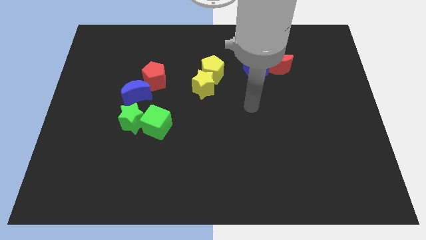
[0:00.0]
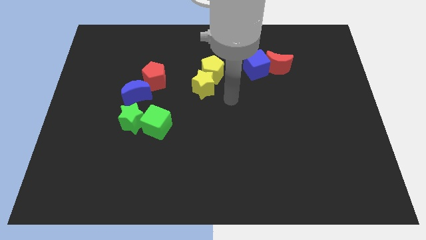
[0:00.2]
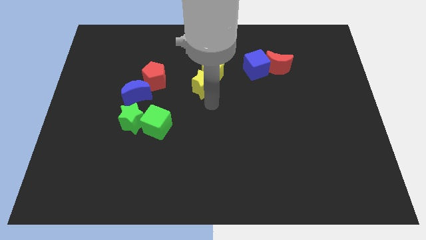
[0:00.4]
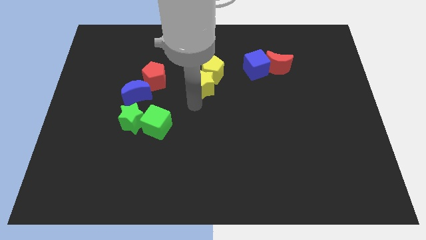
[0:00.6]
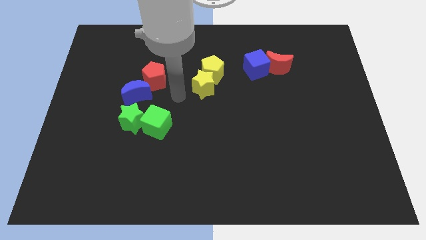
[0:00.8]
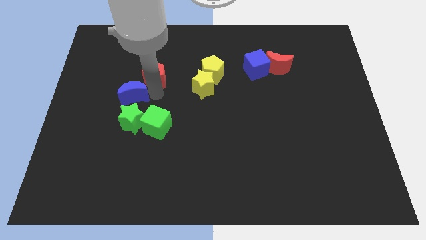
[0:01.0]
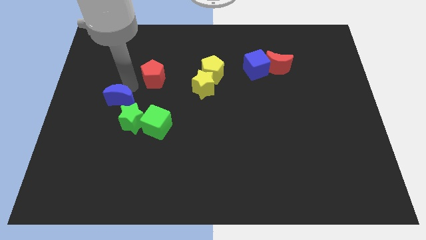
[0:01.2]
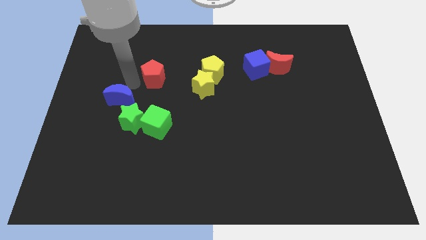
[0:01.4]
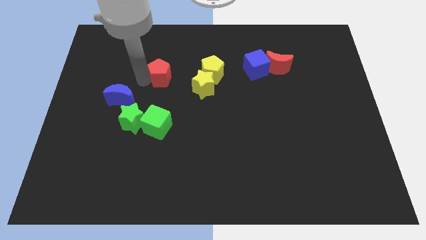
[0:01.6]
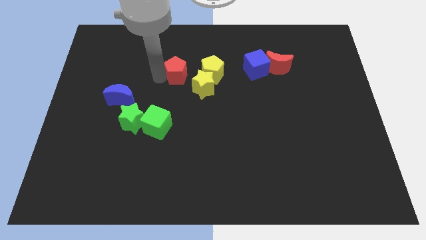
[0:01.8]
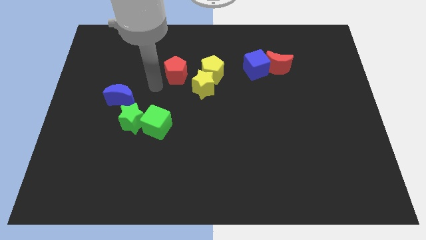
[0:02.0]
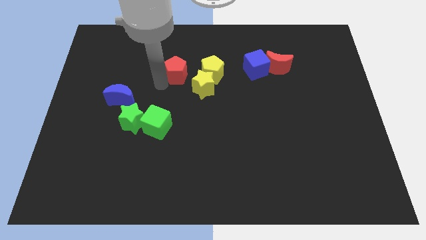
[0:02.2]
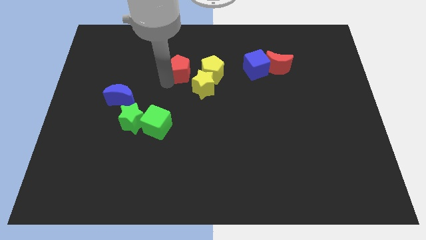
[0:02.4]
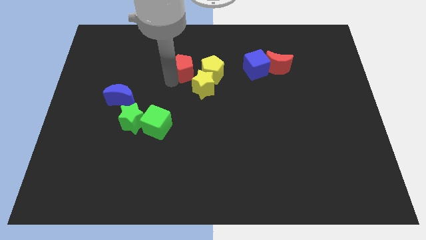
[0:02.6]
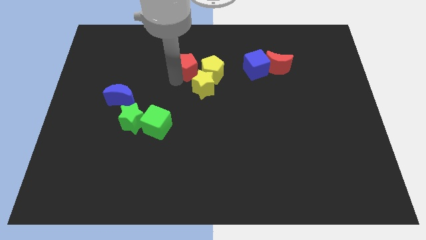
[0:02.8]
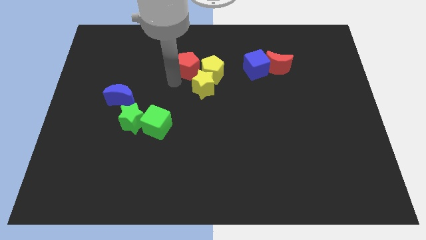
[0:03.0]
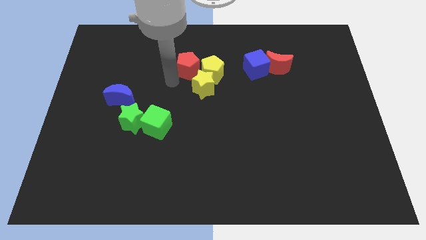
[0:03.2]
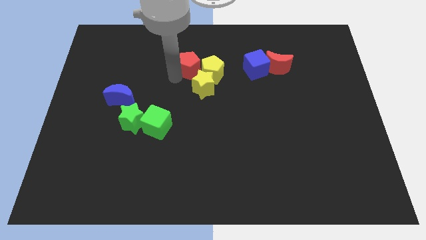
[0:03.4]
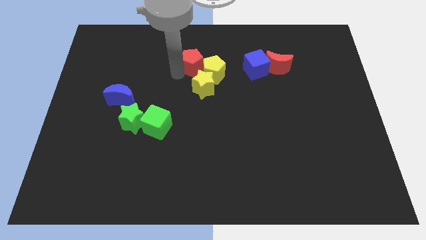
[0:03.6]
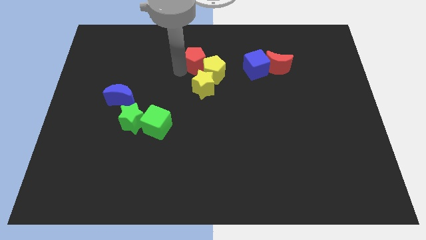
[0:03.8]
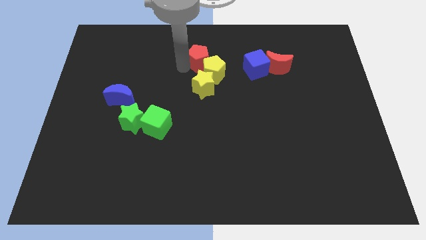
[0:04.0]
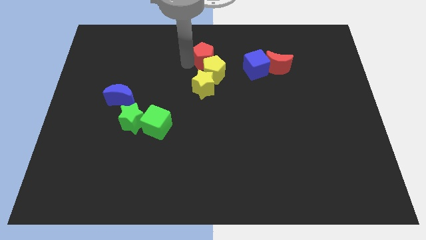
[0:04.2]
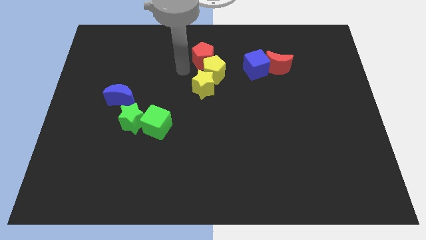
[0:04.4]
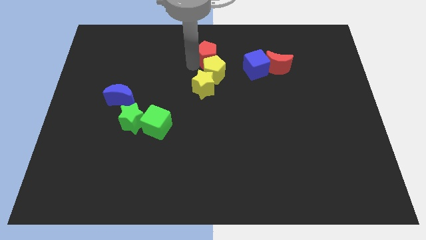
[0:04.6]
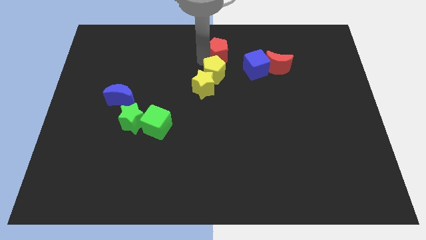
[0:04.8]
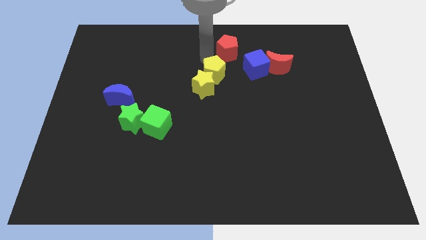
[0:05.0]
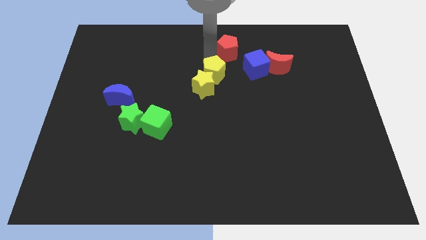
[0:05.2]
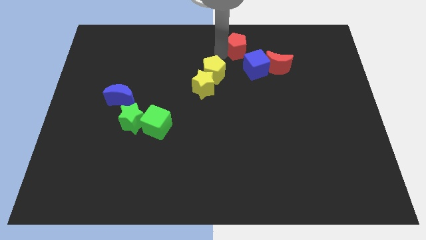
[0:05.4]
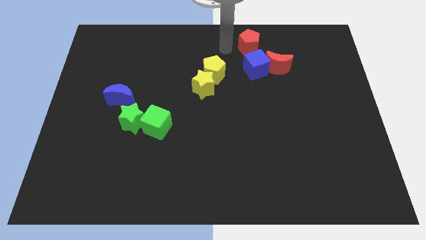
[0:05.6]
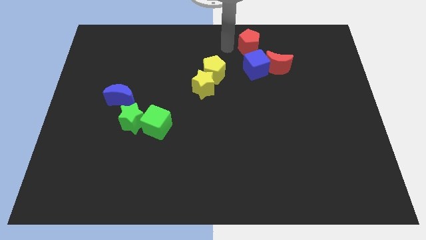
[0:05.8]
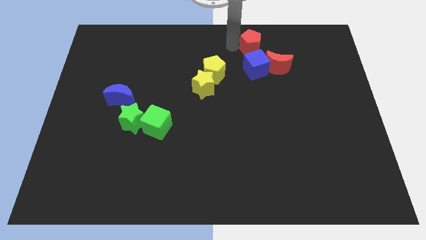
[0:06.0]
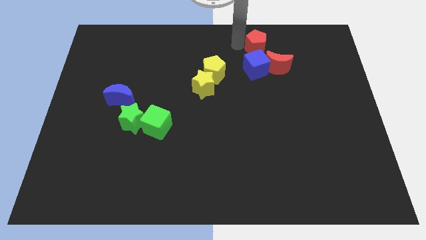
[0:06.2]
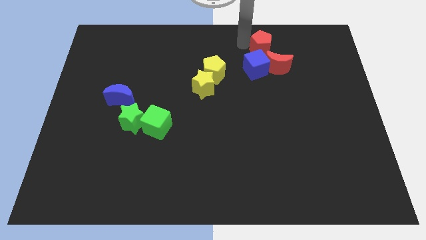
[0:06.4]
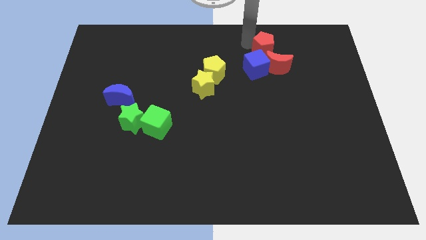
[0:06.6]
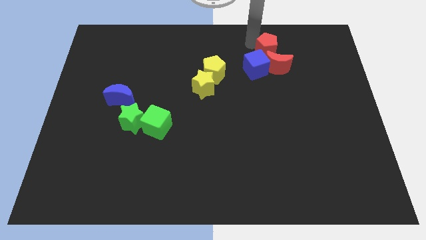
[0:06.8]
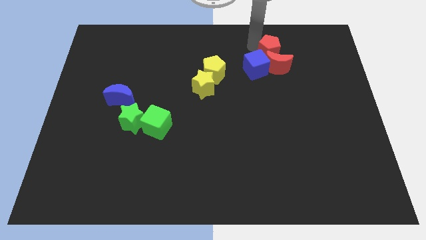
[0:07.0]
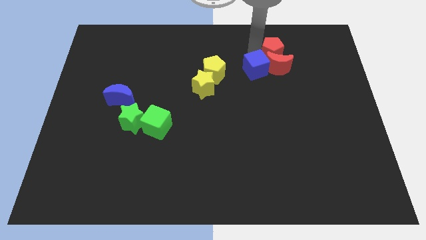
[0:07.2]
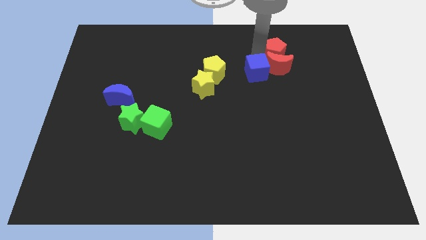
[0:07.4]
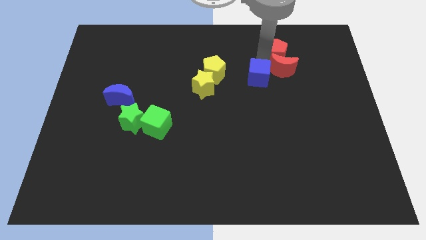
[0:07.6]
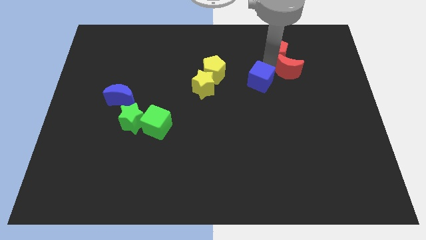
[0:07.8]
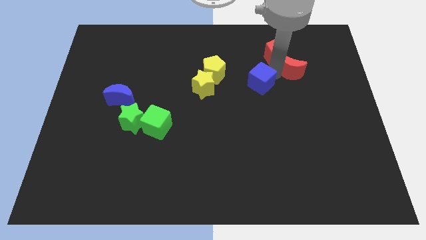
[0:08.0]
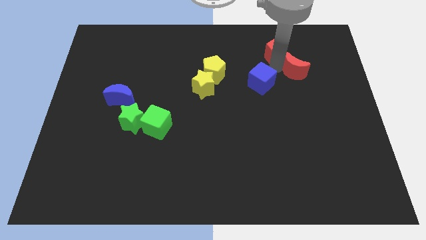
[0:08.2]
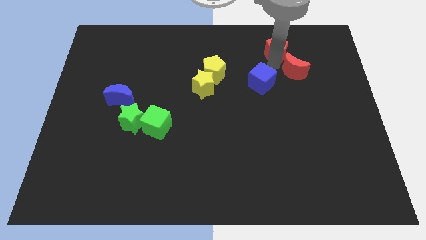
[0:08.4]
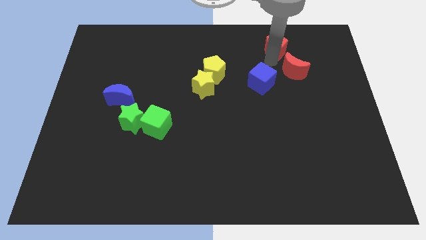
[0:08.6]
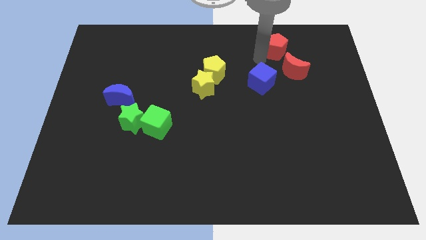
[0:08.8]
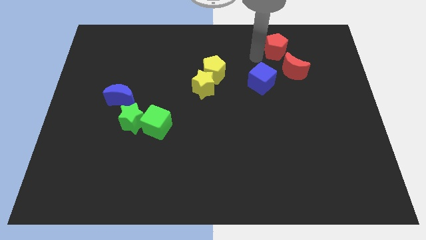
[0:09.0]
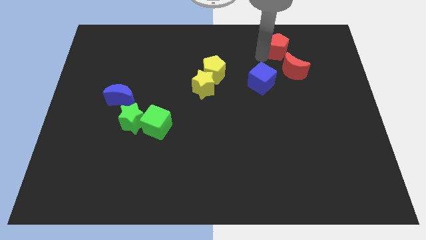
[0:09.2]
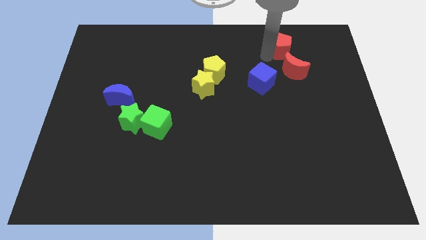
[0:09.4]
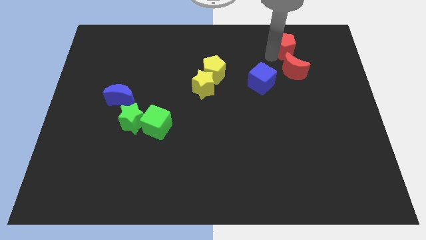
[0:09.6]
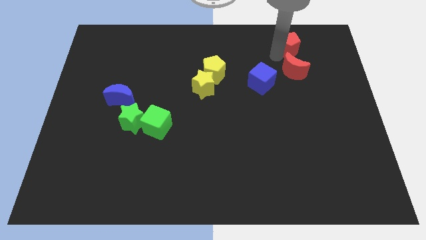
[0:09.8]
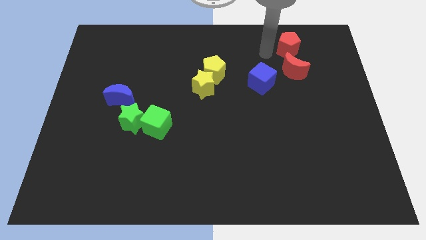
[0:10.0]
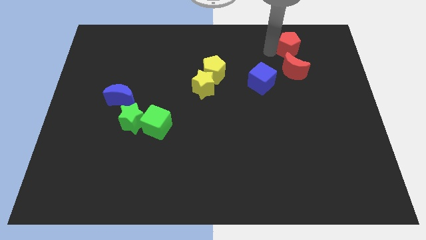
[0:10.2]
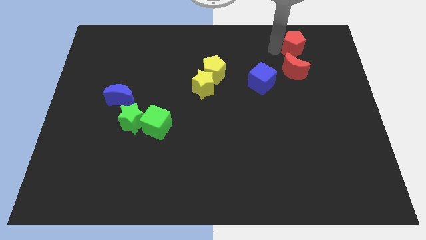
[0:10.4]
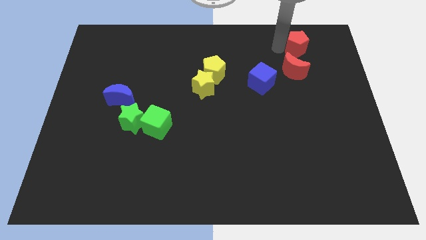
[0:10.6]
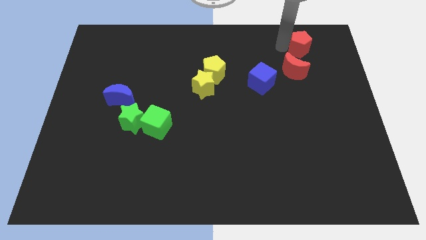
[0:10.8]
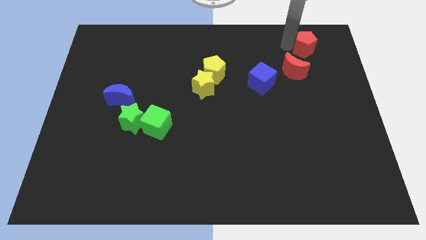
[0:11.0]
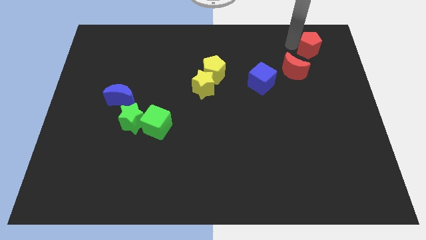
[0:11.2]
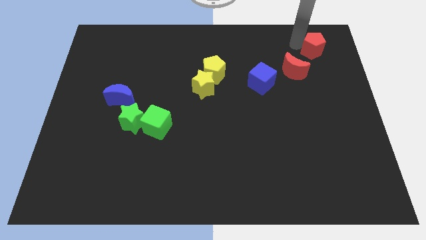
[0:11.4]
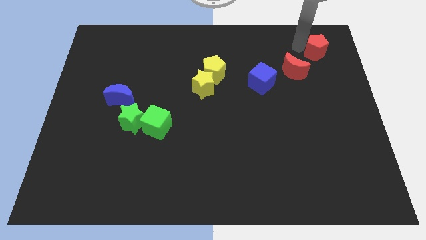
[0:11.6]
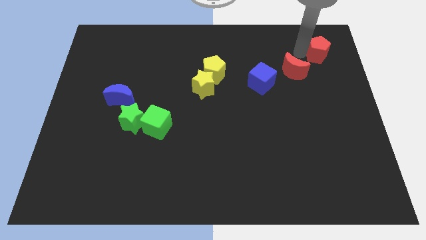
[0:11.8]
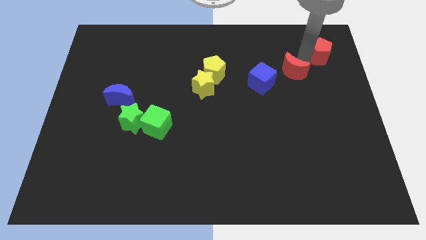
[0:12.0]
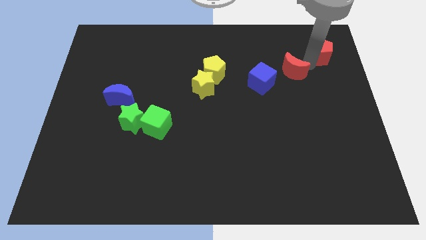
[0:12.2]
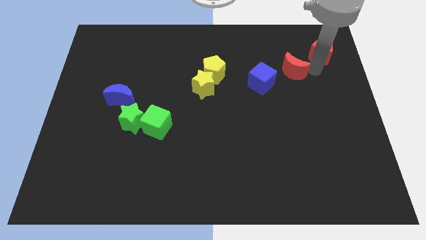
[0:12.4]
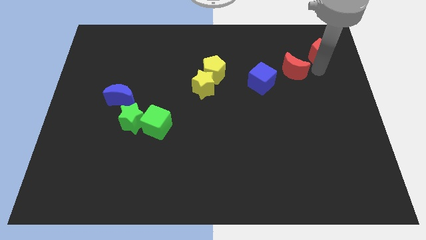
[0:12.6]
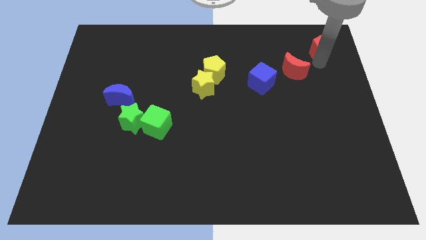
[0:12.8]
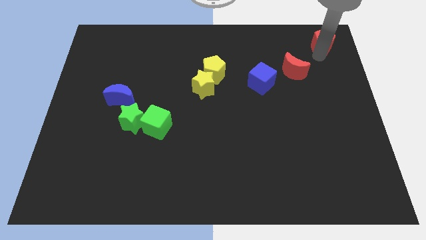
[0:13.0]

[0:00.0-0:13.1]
move the red pentagon to the top right of the board

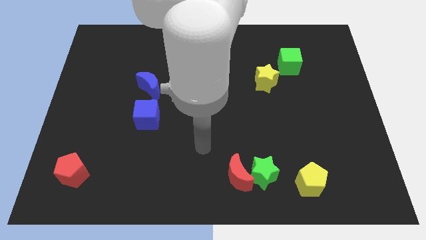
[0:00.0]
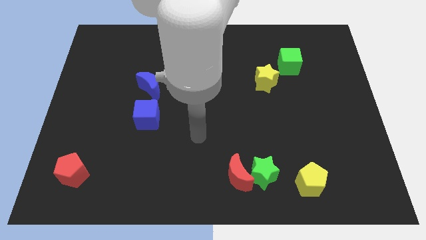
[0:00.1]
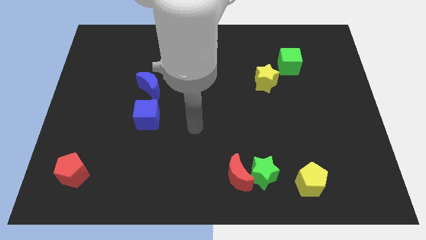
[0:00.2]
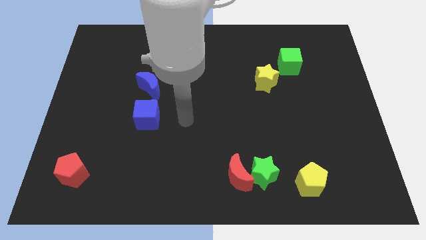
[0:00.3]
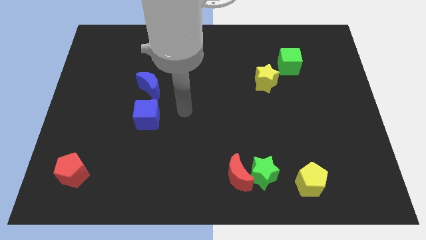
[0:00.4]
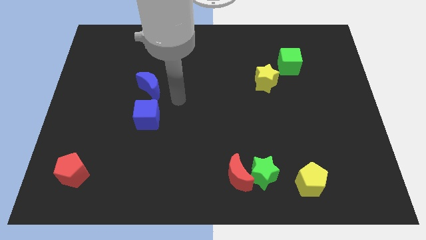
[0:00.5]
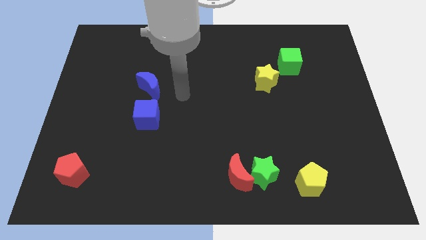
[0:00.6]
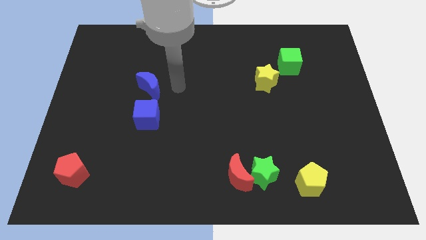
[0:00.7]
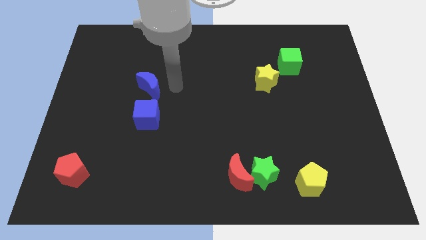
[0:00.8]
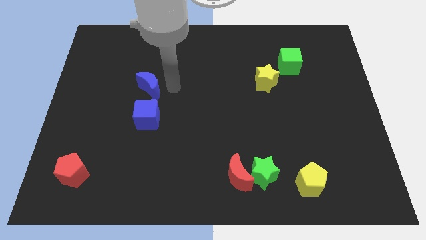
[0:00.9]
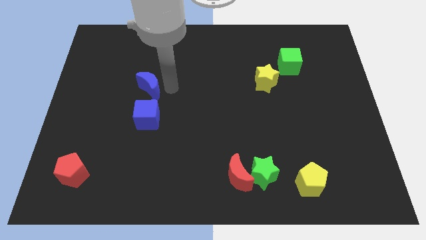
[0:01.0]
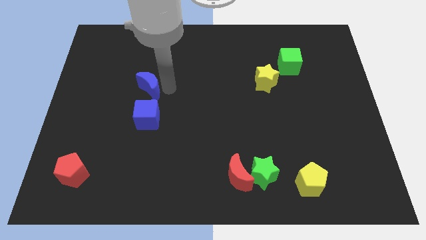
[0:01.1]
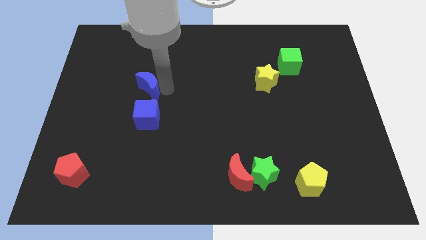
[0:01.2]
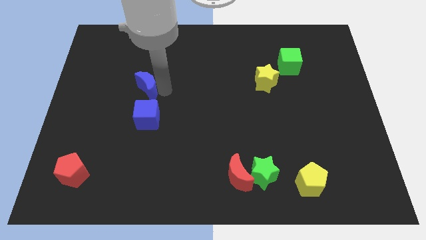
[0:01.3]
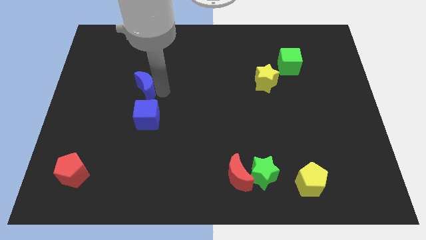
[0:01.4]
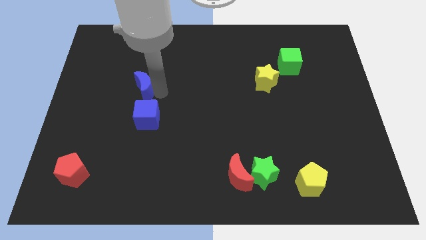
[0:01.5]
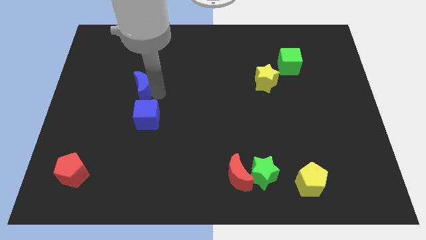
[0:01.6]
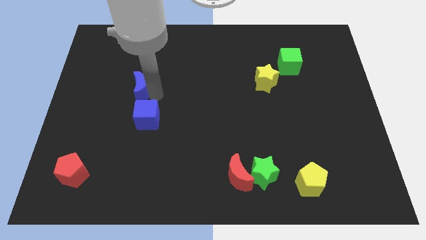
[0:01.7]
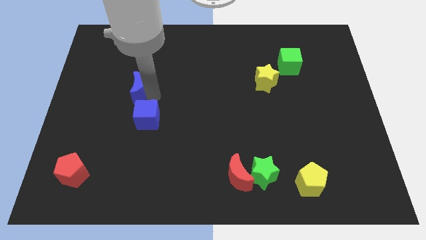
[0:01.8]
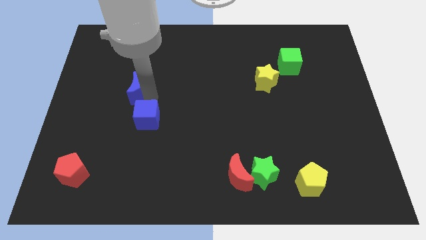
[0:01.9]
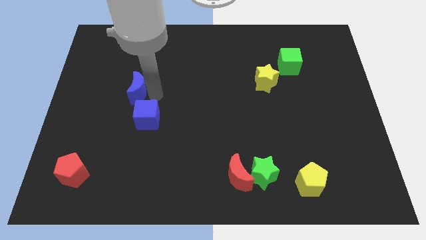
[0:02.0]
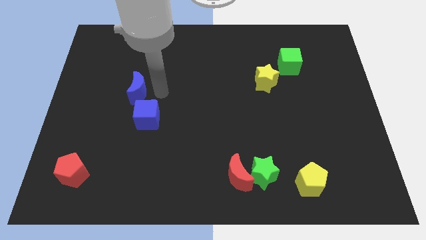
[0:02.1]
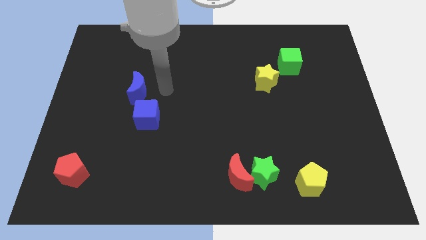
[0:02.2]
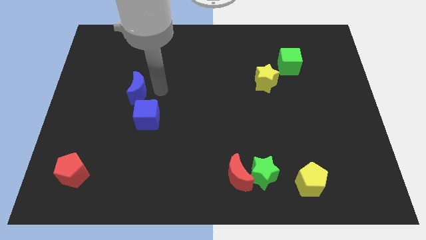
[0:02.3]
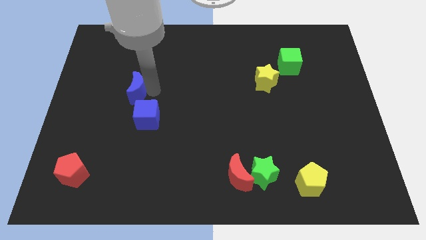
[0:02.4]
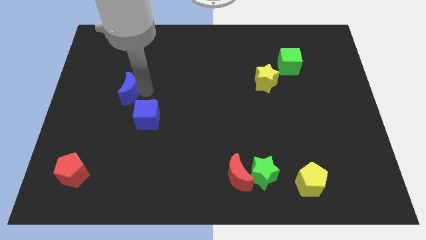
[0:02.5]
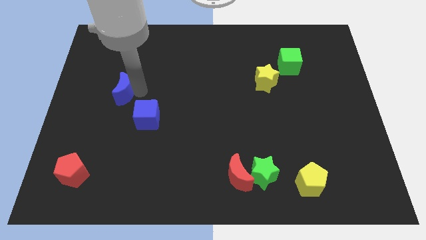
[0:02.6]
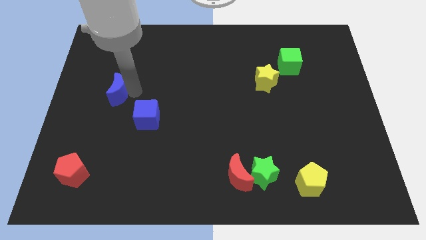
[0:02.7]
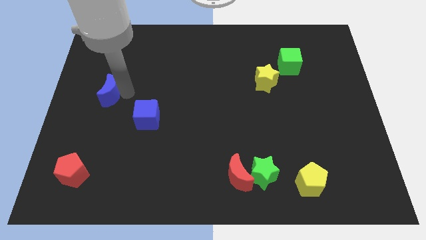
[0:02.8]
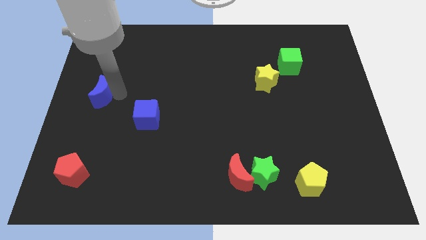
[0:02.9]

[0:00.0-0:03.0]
put the blue moon to the left side
